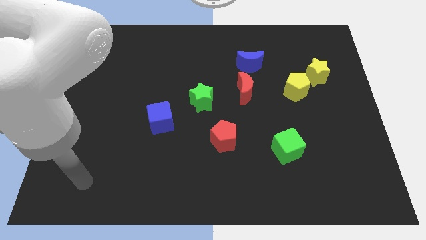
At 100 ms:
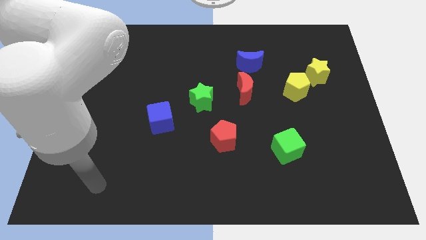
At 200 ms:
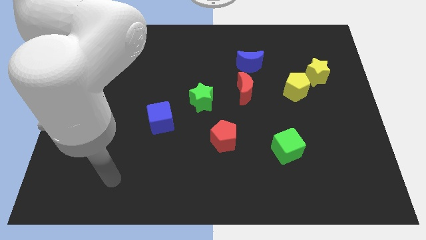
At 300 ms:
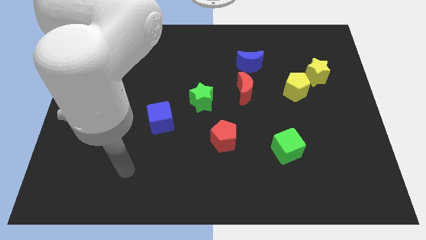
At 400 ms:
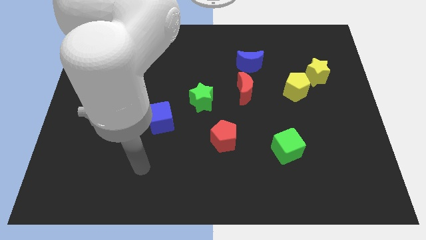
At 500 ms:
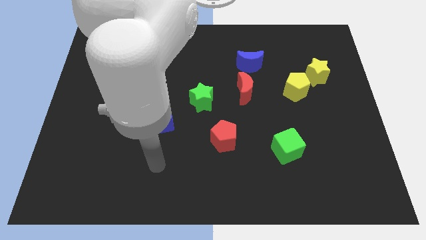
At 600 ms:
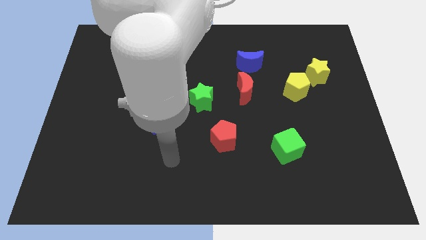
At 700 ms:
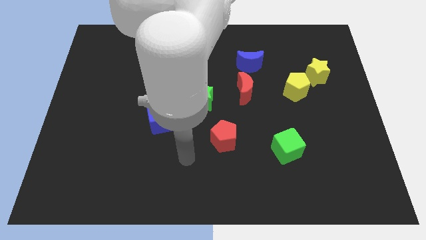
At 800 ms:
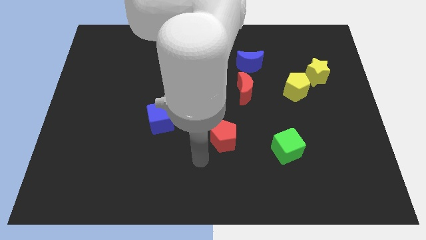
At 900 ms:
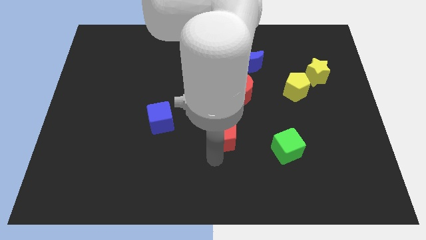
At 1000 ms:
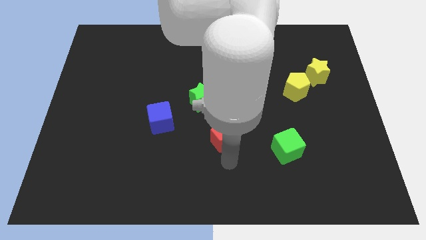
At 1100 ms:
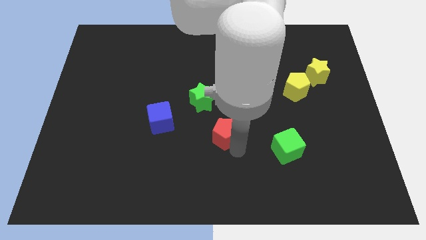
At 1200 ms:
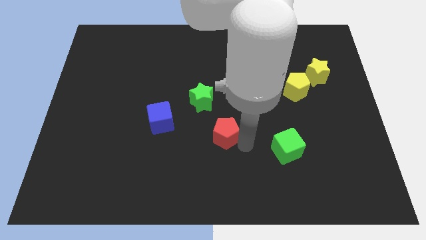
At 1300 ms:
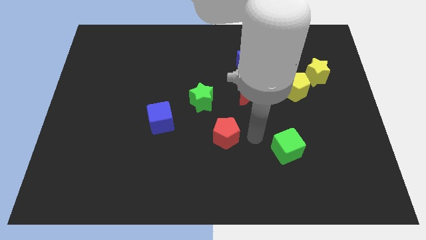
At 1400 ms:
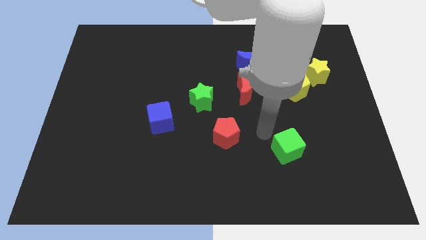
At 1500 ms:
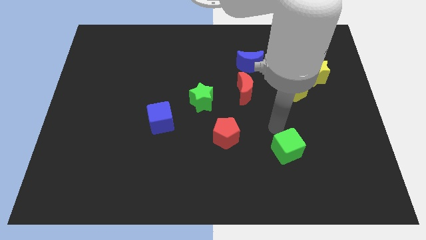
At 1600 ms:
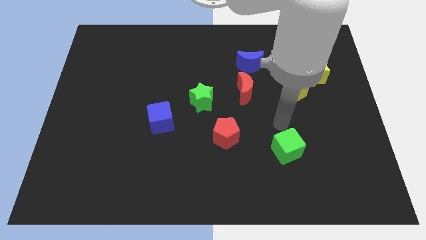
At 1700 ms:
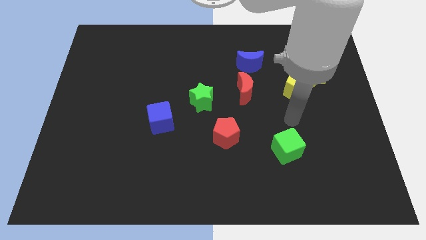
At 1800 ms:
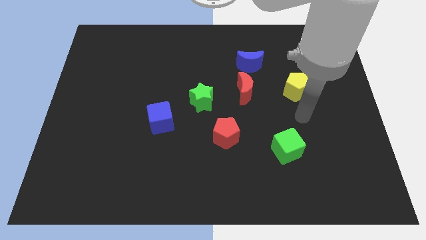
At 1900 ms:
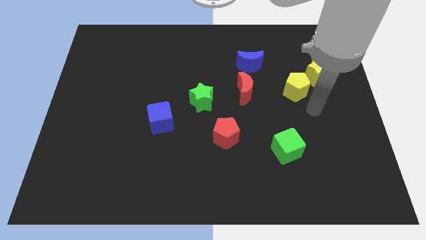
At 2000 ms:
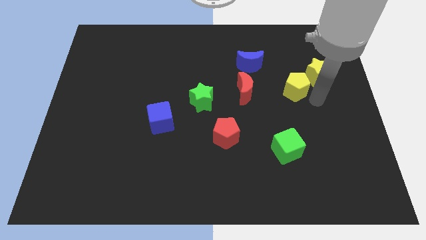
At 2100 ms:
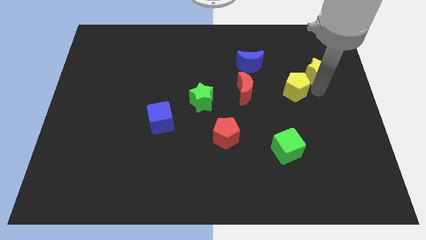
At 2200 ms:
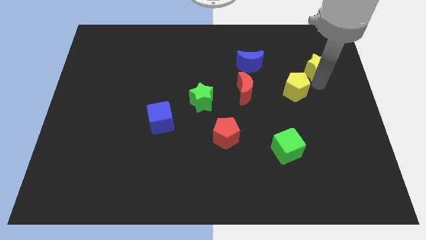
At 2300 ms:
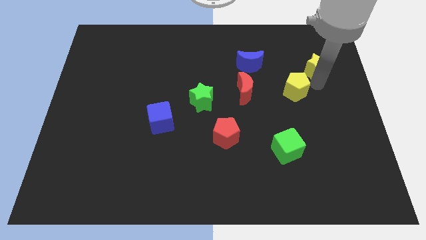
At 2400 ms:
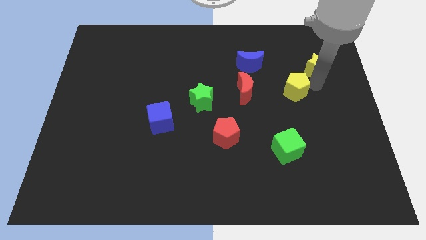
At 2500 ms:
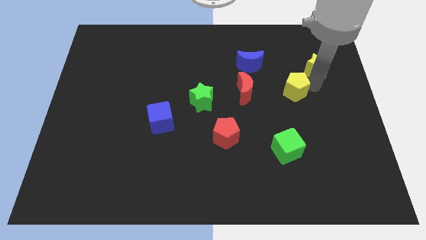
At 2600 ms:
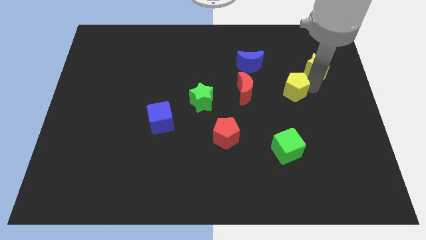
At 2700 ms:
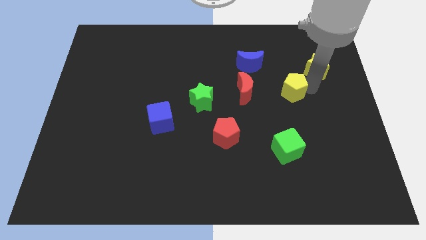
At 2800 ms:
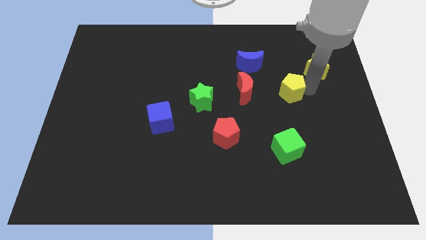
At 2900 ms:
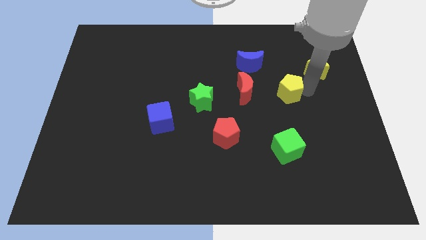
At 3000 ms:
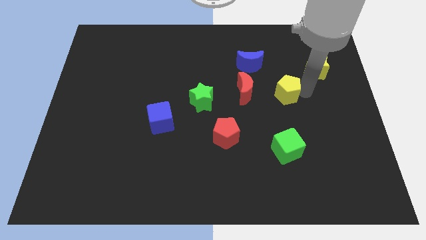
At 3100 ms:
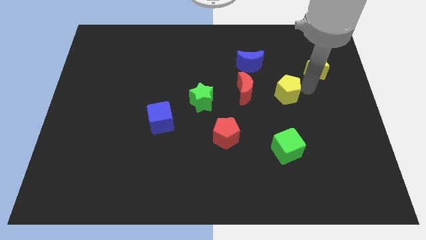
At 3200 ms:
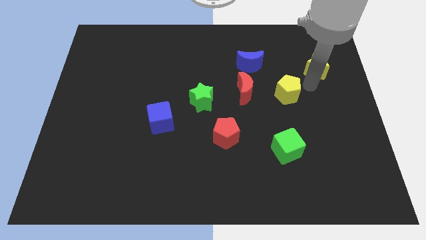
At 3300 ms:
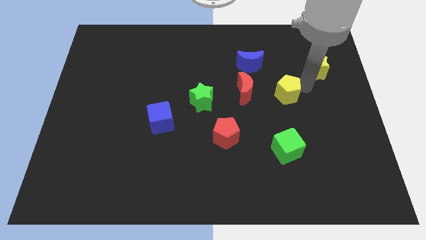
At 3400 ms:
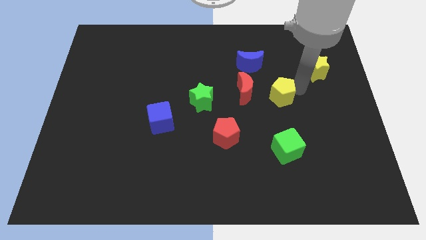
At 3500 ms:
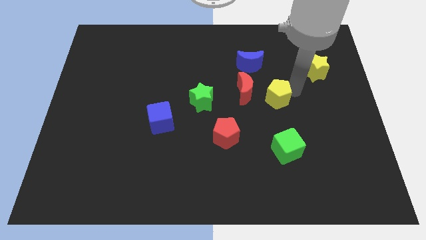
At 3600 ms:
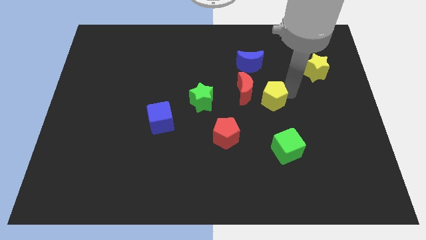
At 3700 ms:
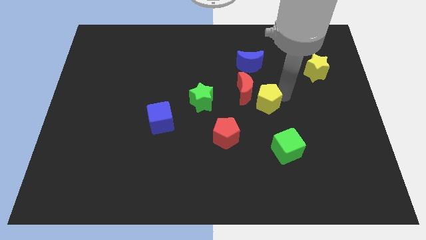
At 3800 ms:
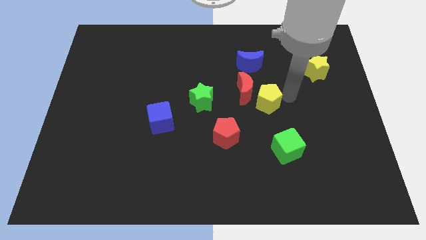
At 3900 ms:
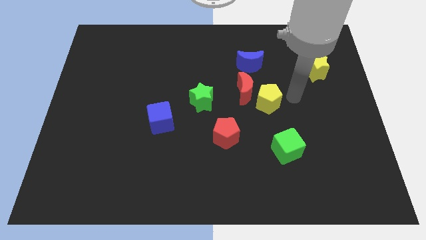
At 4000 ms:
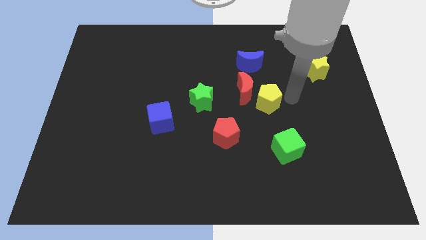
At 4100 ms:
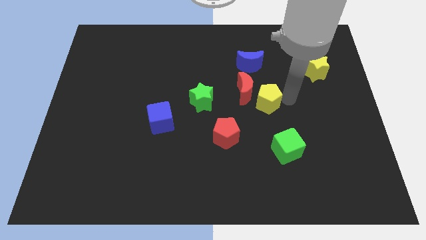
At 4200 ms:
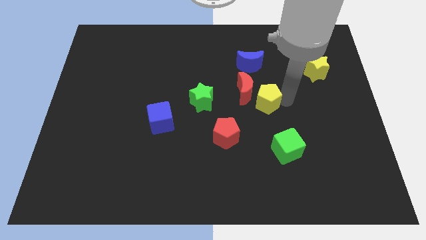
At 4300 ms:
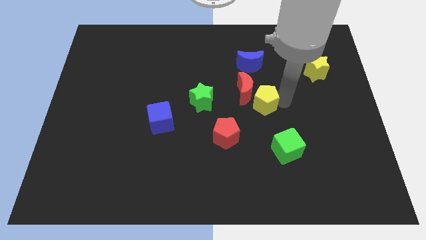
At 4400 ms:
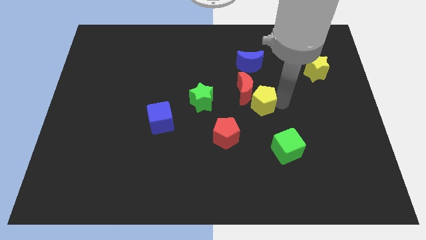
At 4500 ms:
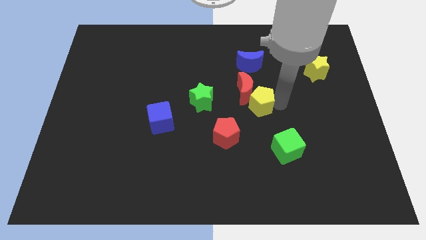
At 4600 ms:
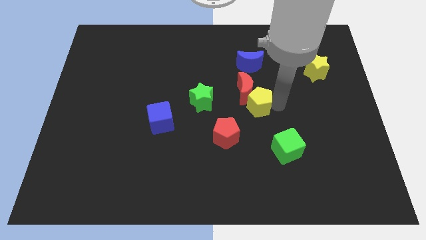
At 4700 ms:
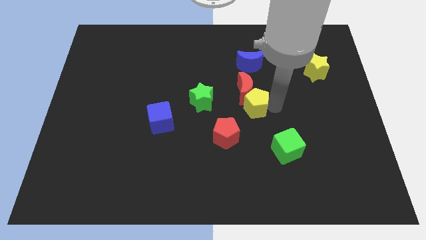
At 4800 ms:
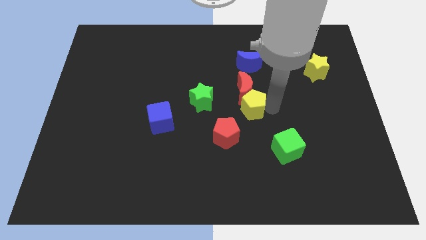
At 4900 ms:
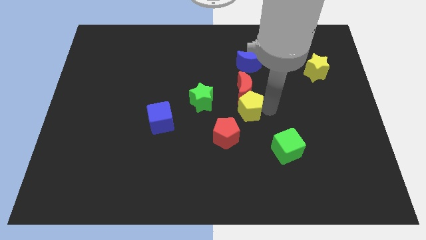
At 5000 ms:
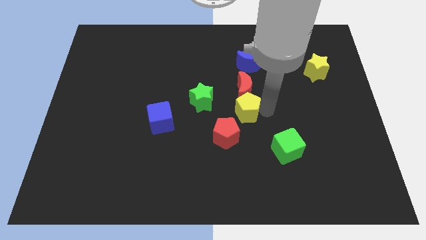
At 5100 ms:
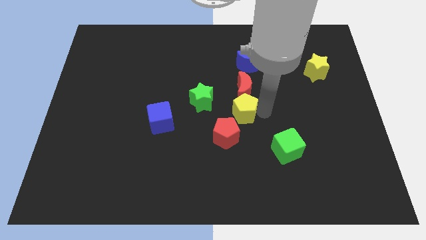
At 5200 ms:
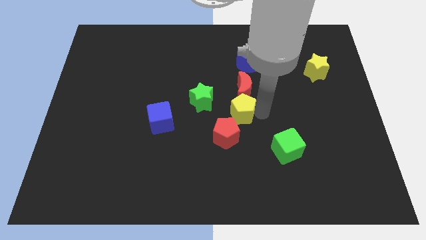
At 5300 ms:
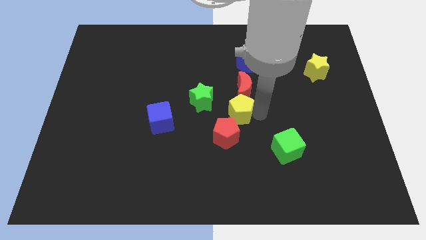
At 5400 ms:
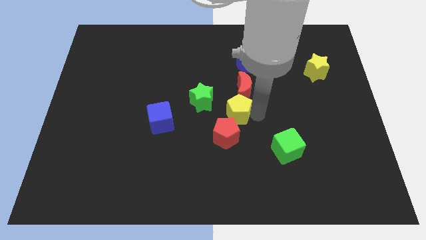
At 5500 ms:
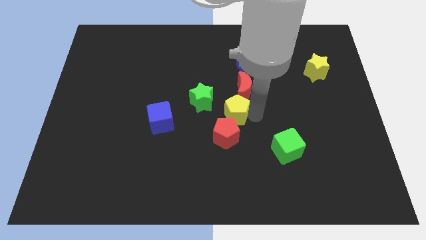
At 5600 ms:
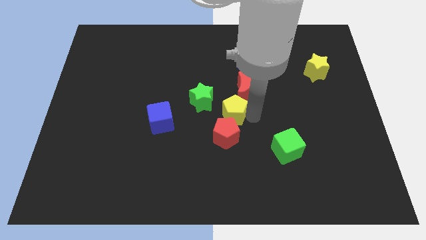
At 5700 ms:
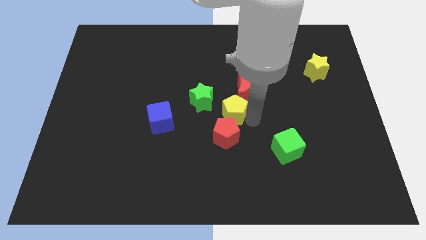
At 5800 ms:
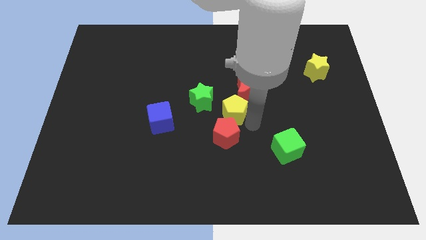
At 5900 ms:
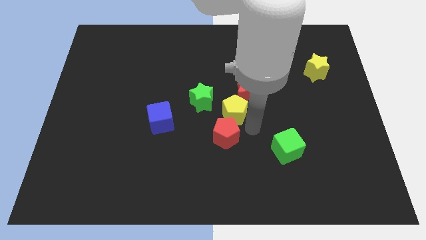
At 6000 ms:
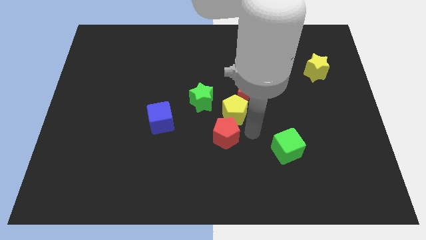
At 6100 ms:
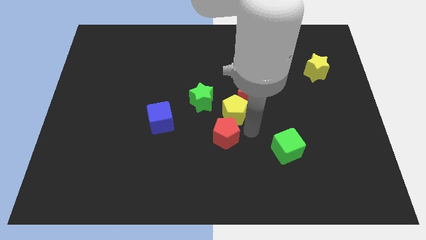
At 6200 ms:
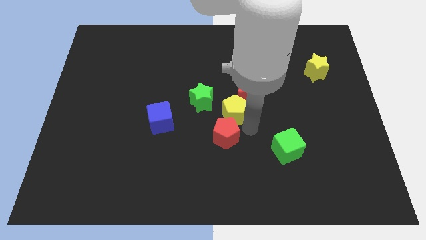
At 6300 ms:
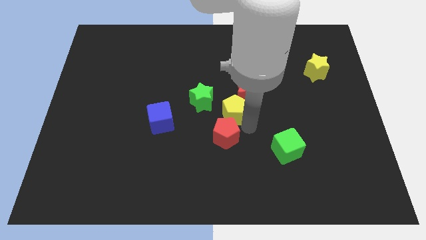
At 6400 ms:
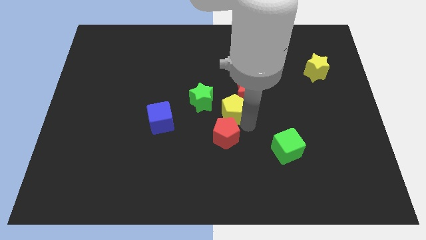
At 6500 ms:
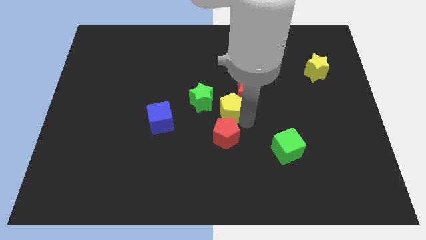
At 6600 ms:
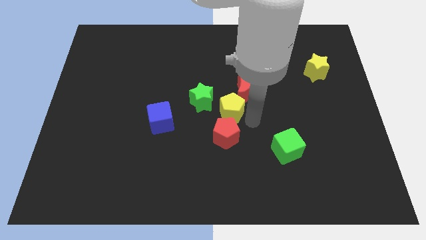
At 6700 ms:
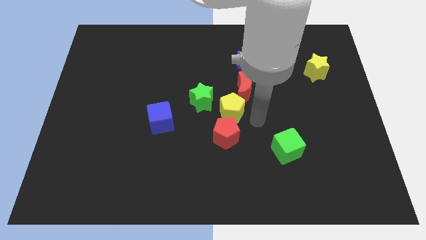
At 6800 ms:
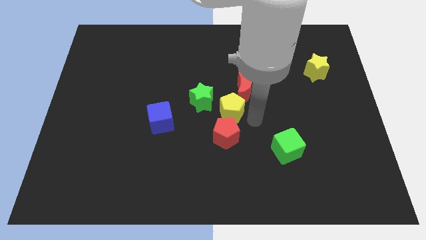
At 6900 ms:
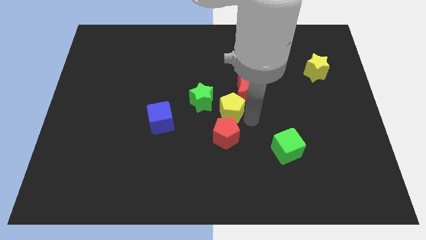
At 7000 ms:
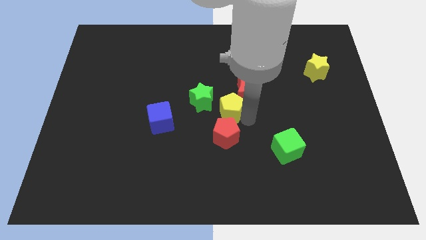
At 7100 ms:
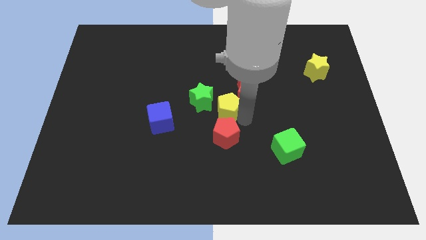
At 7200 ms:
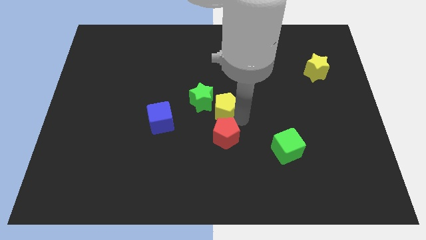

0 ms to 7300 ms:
put the yellow pentagon close to the green star

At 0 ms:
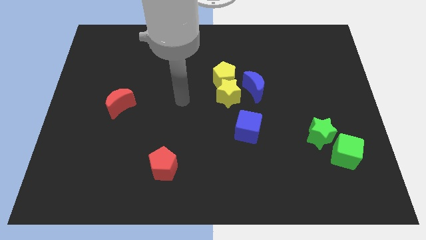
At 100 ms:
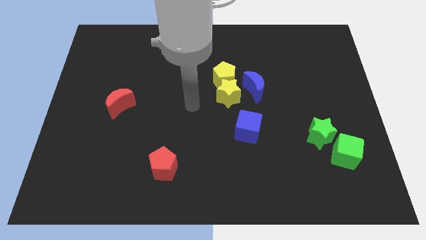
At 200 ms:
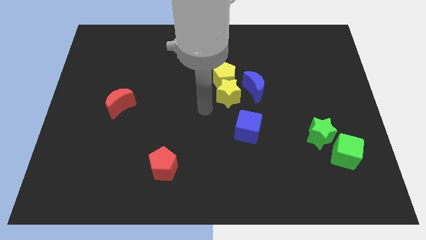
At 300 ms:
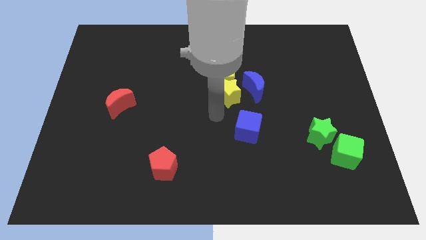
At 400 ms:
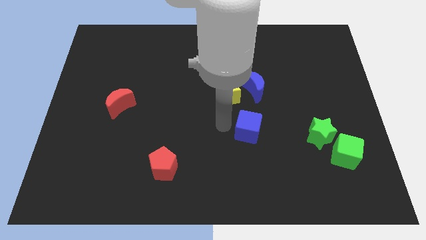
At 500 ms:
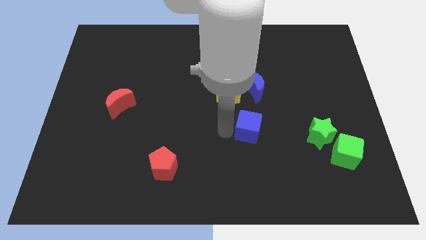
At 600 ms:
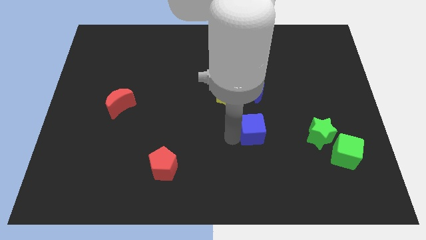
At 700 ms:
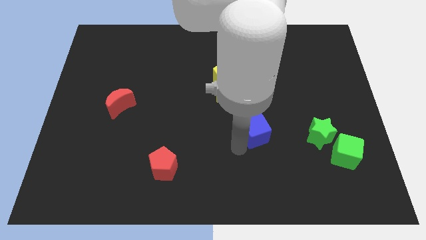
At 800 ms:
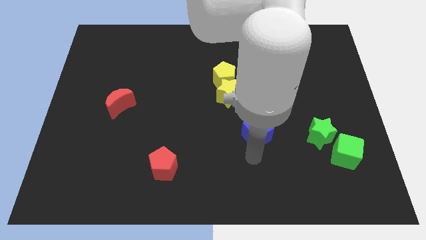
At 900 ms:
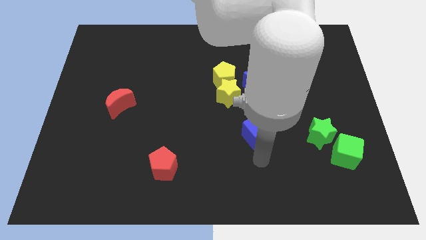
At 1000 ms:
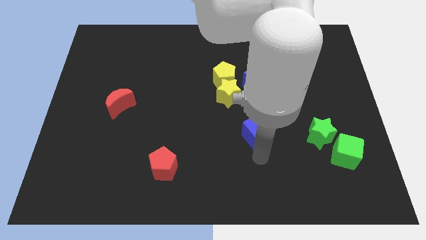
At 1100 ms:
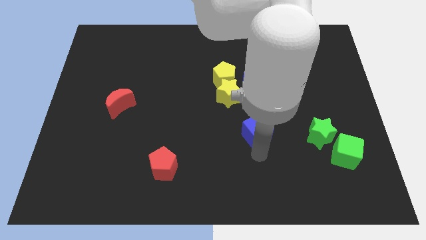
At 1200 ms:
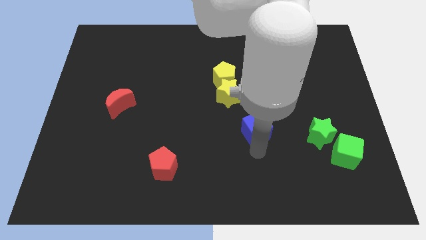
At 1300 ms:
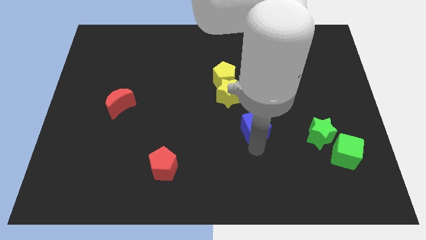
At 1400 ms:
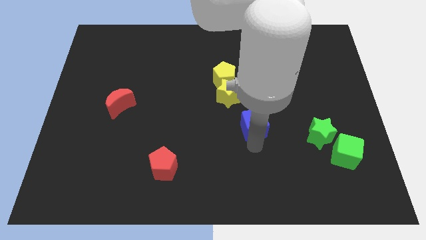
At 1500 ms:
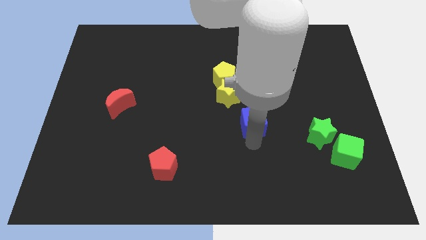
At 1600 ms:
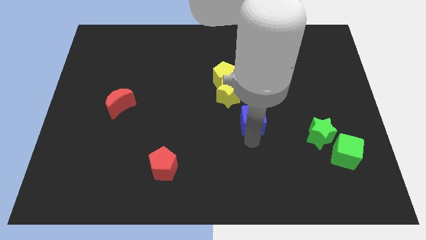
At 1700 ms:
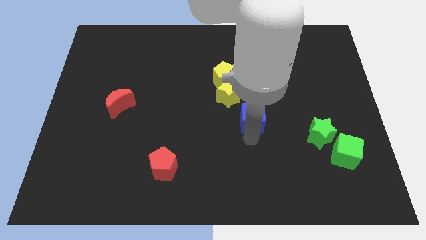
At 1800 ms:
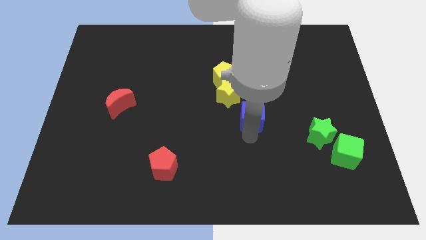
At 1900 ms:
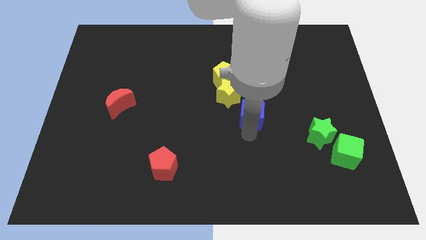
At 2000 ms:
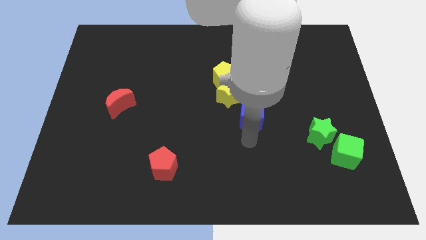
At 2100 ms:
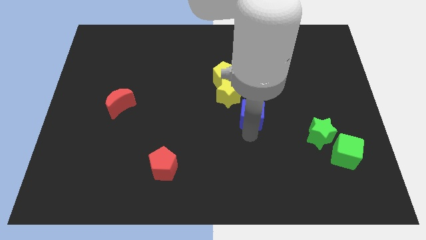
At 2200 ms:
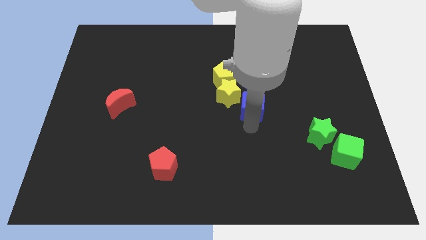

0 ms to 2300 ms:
move the blue cube next to the blue moon
